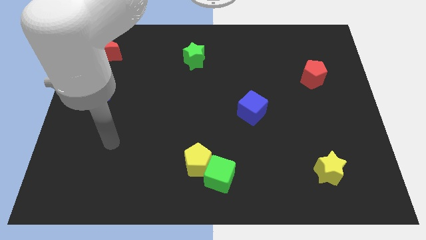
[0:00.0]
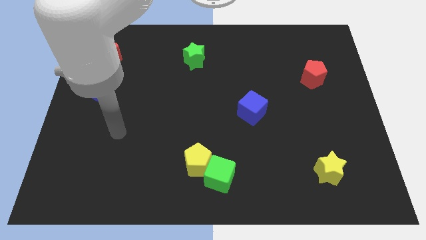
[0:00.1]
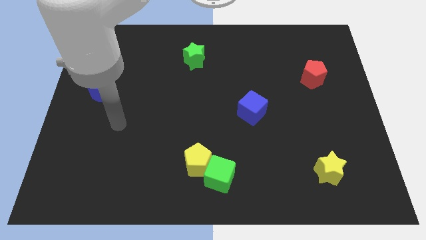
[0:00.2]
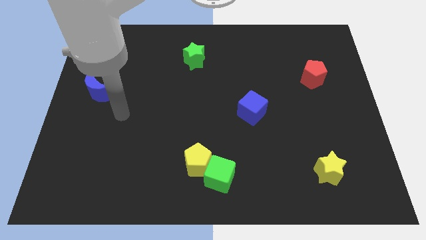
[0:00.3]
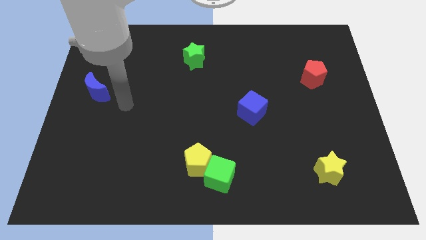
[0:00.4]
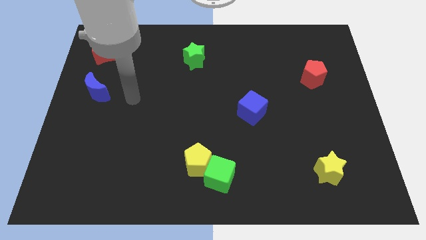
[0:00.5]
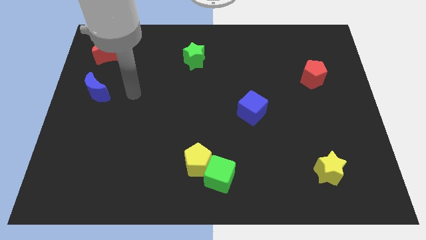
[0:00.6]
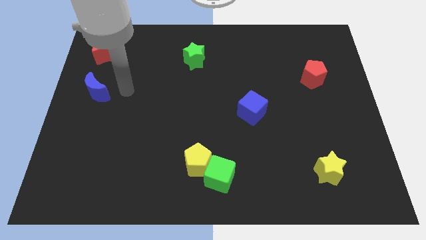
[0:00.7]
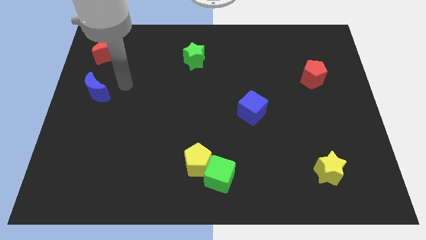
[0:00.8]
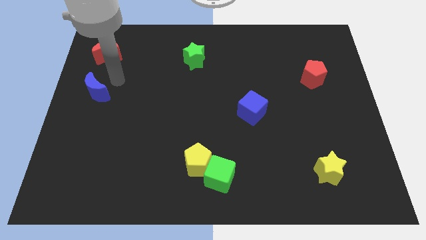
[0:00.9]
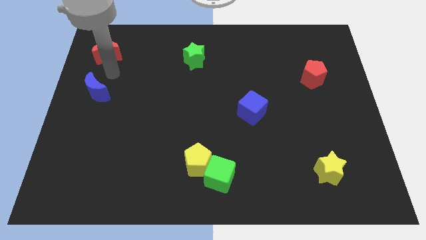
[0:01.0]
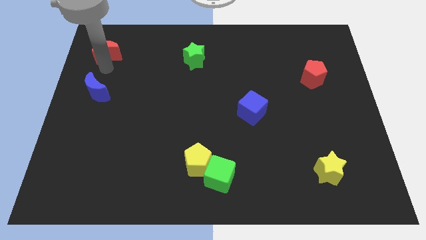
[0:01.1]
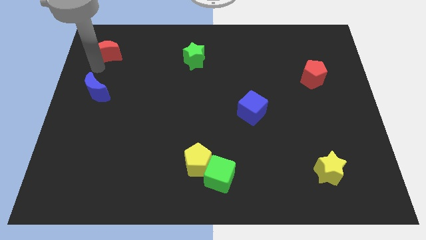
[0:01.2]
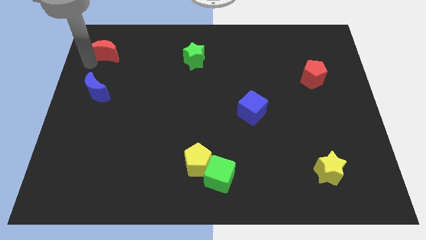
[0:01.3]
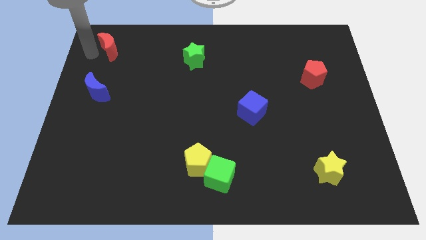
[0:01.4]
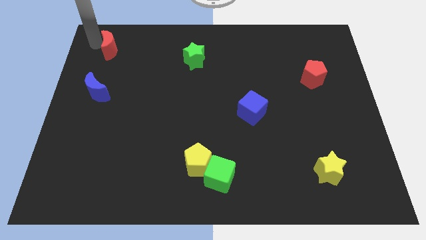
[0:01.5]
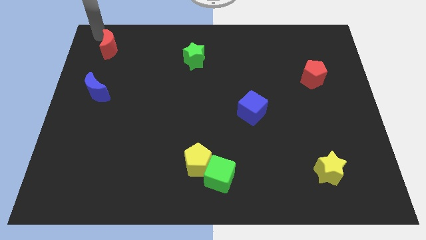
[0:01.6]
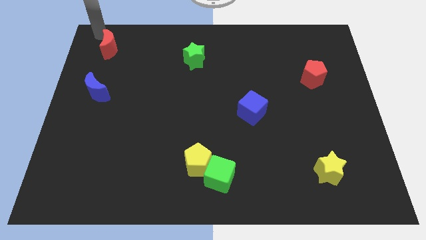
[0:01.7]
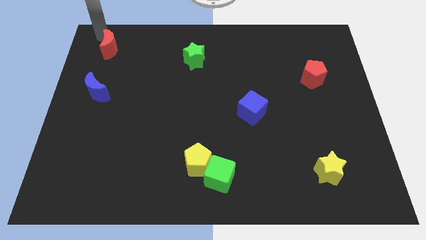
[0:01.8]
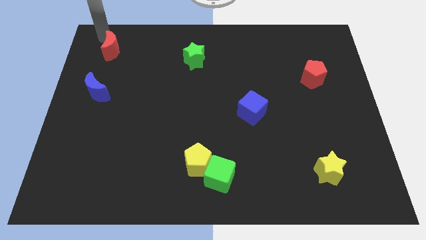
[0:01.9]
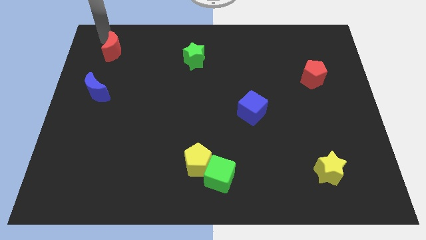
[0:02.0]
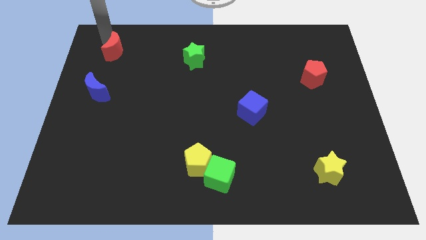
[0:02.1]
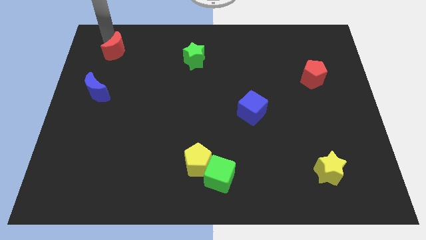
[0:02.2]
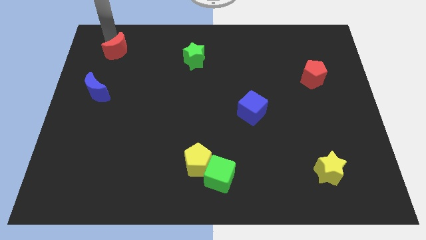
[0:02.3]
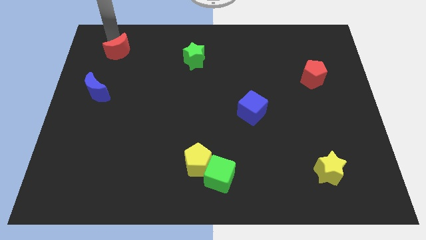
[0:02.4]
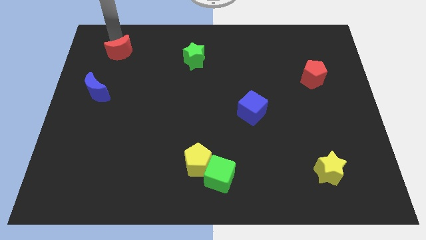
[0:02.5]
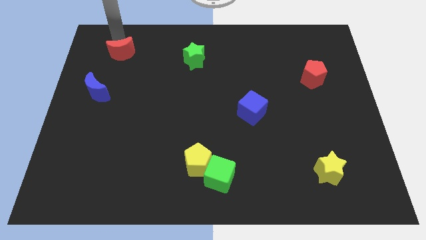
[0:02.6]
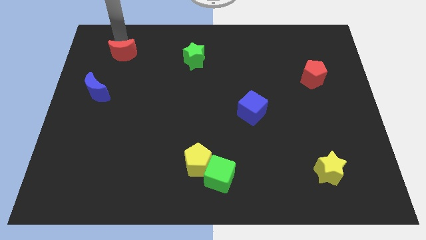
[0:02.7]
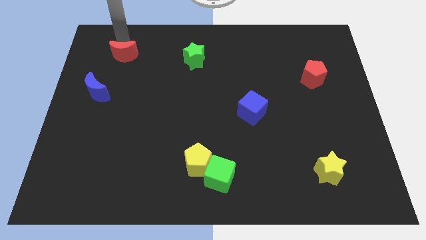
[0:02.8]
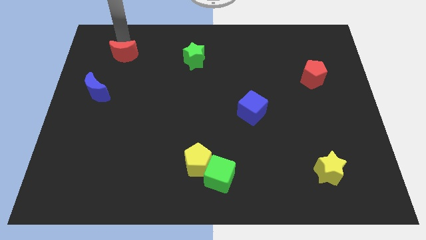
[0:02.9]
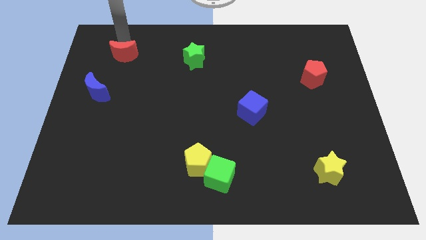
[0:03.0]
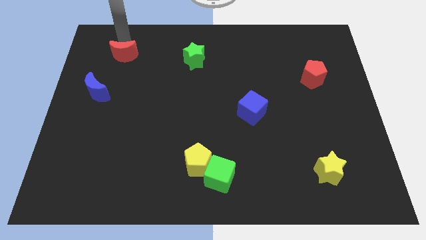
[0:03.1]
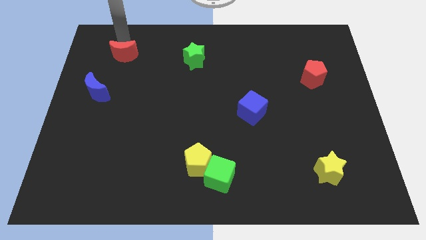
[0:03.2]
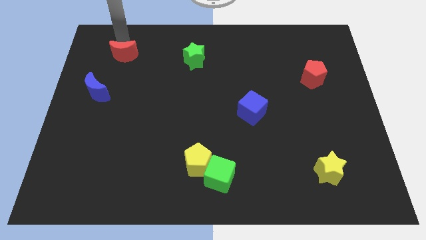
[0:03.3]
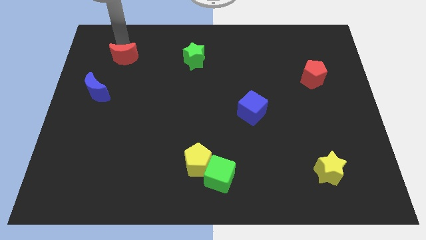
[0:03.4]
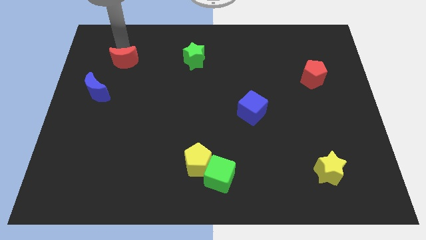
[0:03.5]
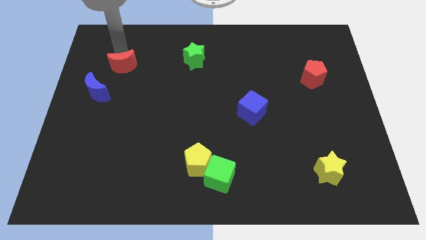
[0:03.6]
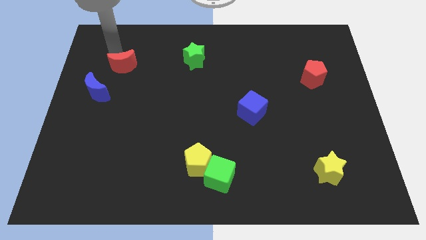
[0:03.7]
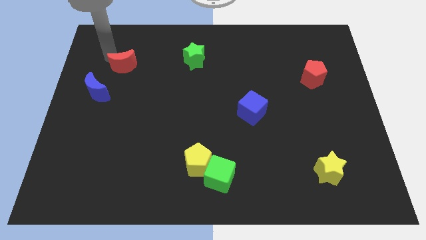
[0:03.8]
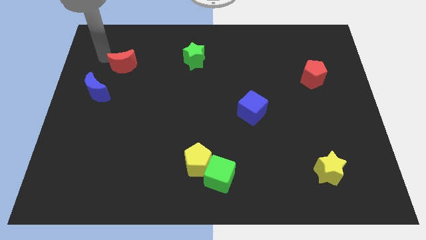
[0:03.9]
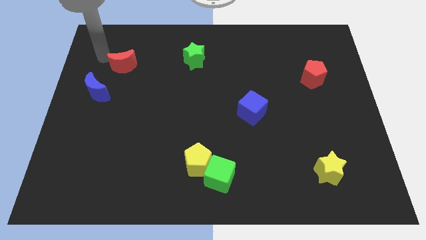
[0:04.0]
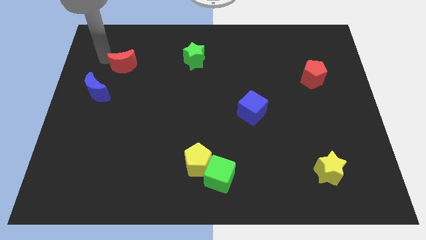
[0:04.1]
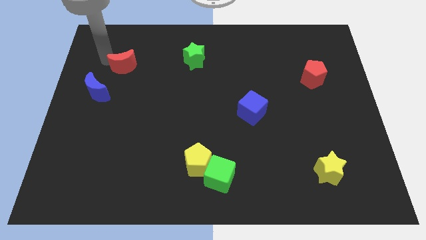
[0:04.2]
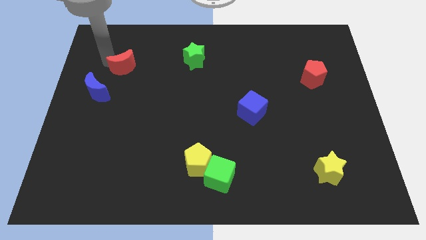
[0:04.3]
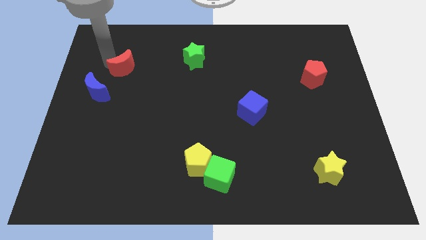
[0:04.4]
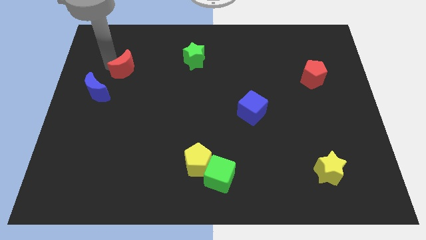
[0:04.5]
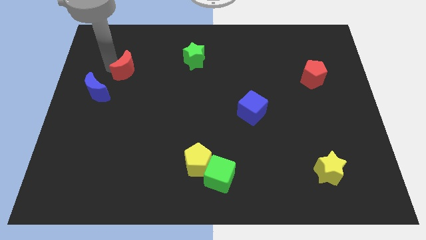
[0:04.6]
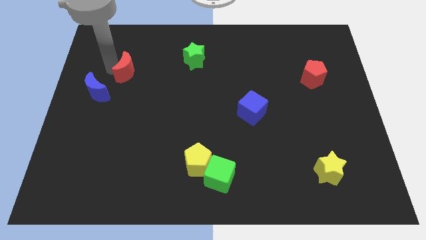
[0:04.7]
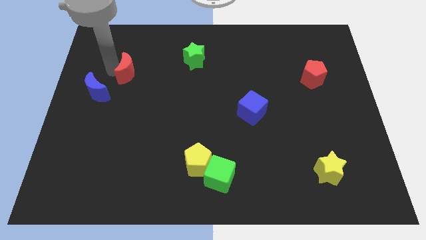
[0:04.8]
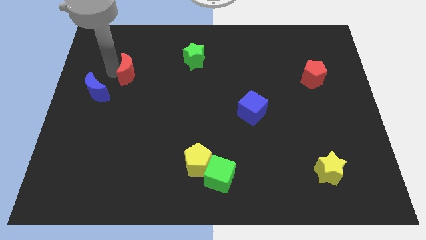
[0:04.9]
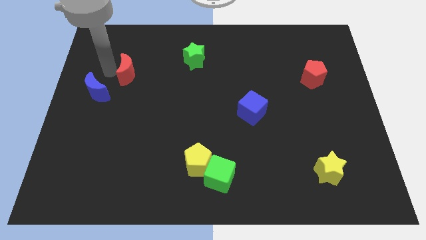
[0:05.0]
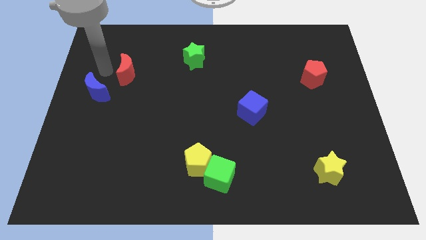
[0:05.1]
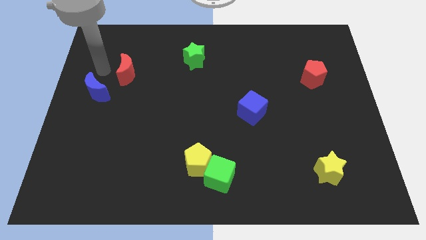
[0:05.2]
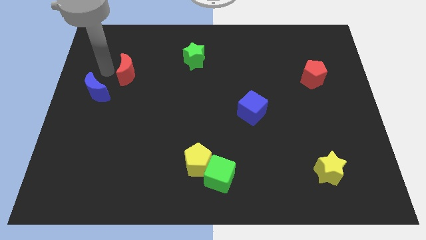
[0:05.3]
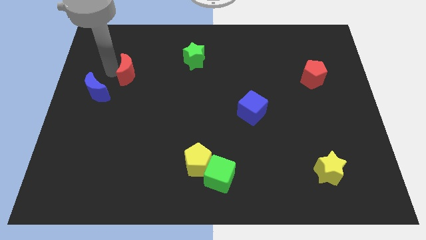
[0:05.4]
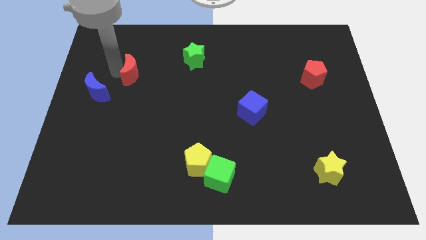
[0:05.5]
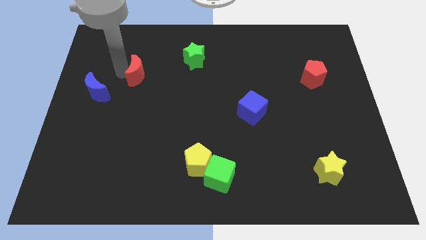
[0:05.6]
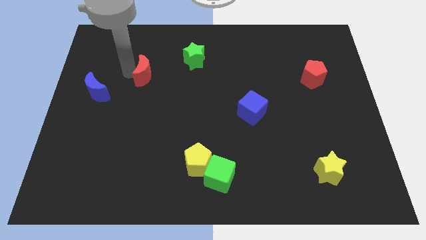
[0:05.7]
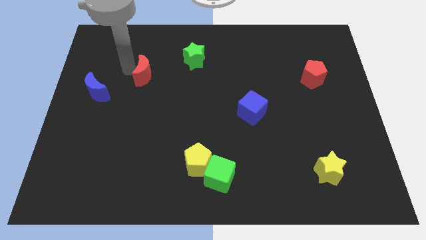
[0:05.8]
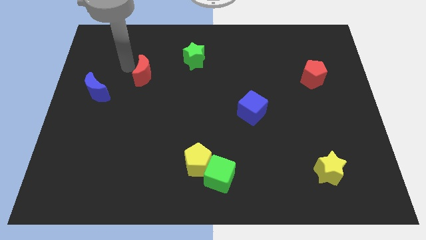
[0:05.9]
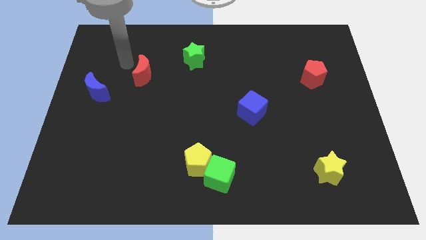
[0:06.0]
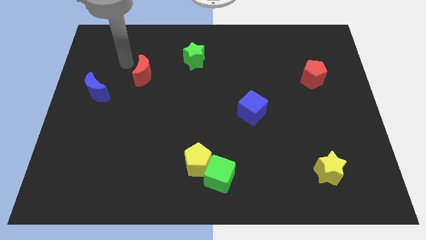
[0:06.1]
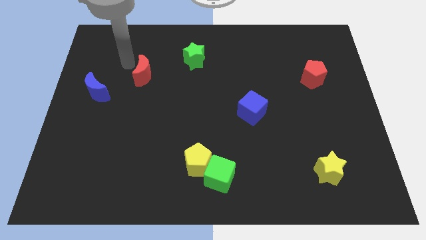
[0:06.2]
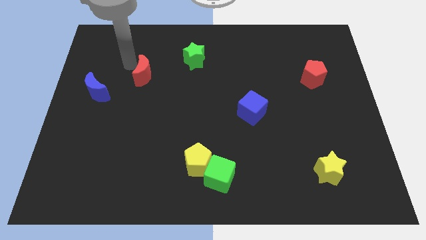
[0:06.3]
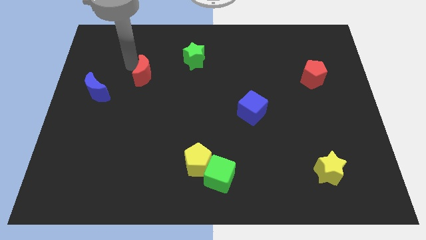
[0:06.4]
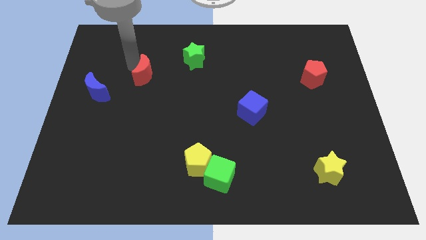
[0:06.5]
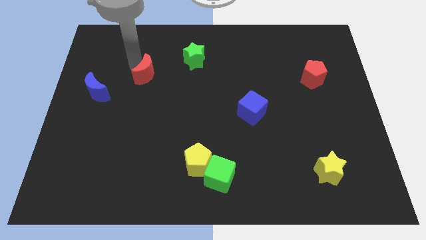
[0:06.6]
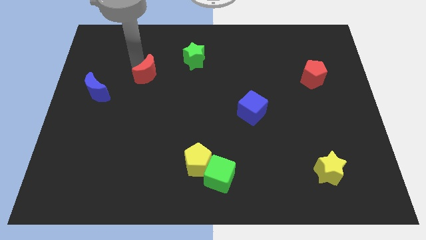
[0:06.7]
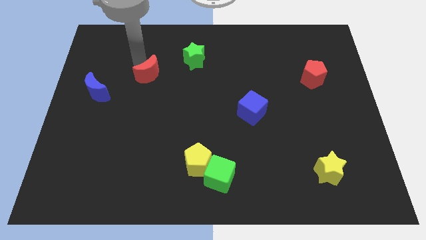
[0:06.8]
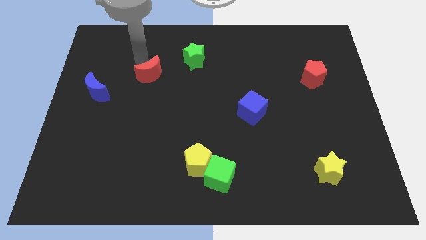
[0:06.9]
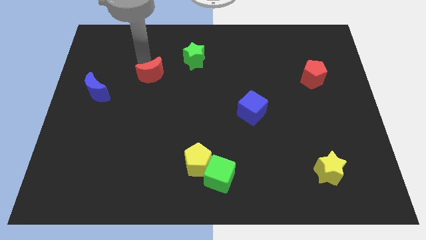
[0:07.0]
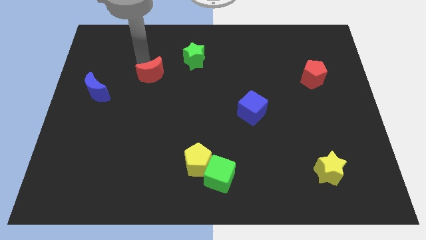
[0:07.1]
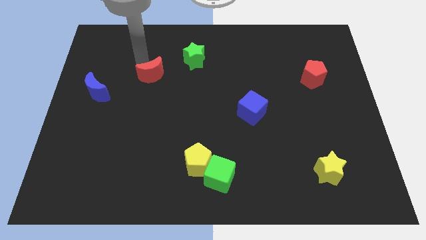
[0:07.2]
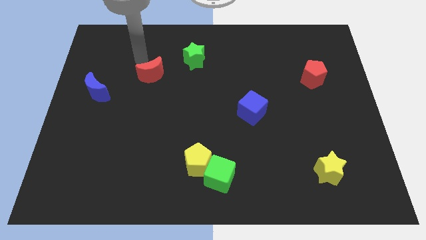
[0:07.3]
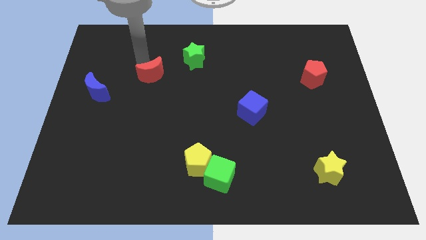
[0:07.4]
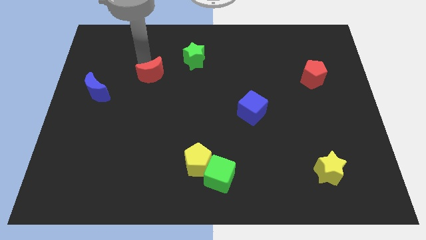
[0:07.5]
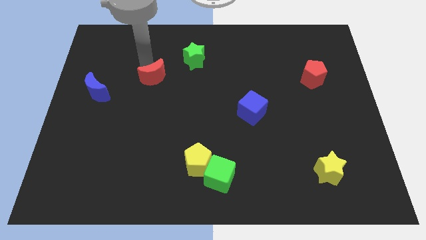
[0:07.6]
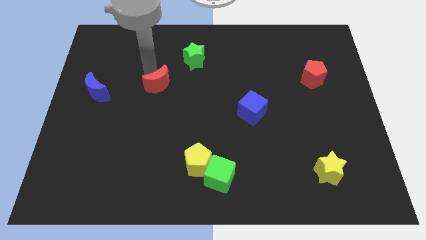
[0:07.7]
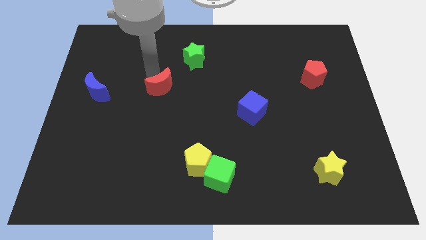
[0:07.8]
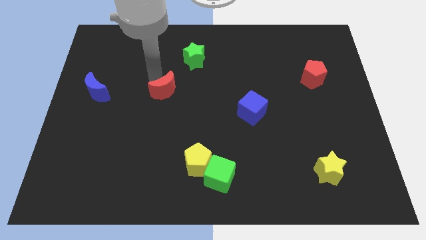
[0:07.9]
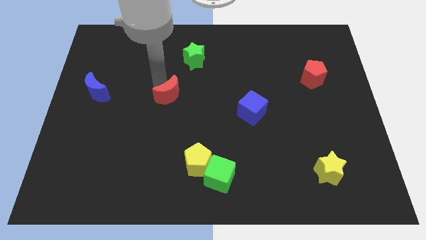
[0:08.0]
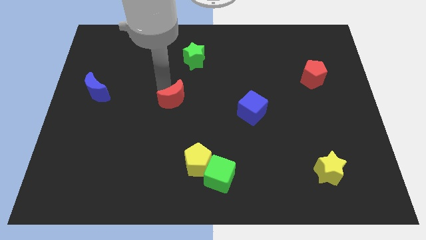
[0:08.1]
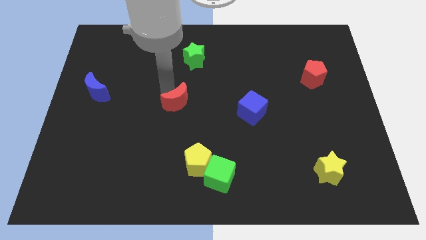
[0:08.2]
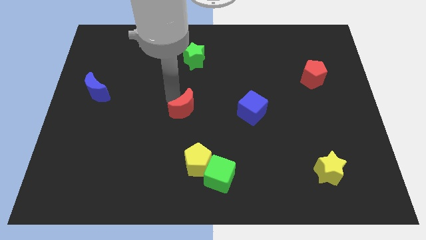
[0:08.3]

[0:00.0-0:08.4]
slide the red moon above the yellow pentagon
